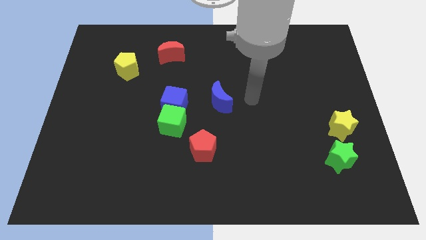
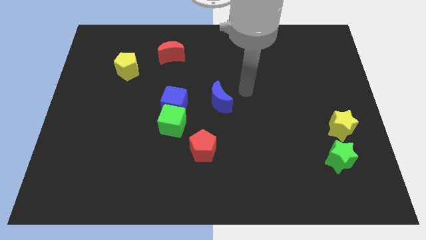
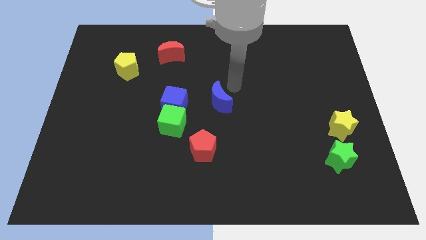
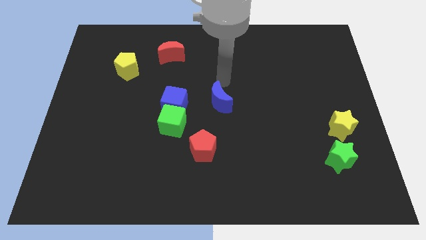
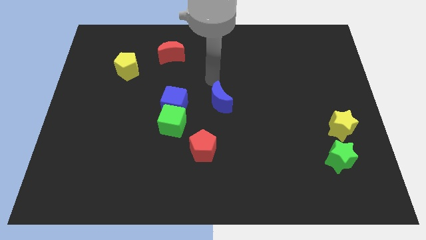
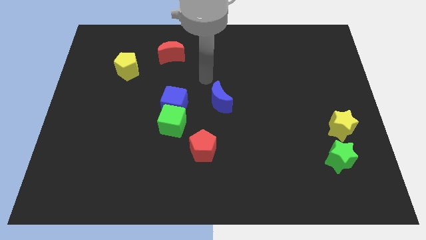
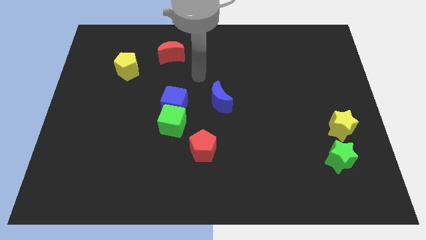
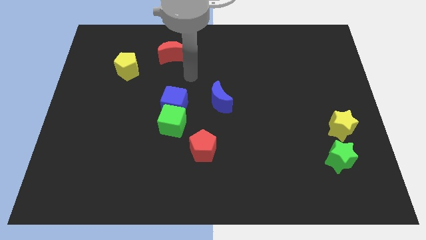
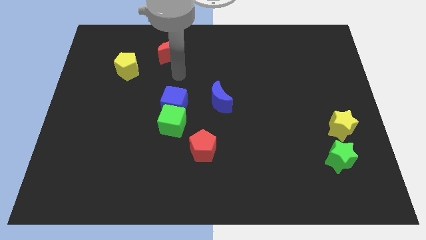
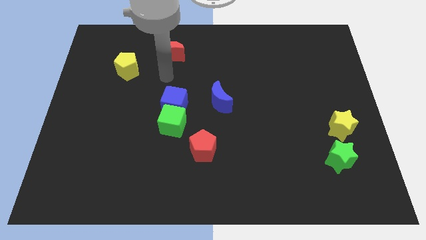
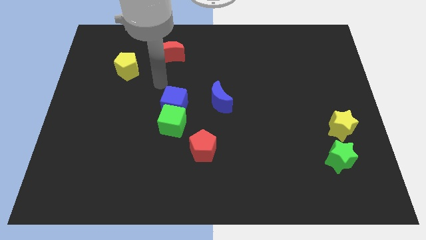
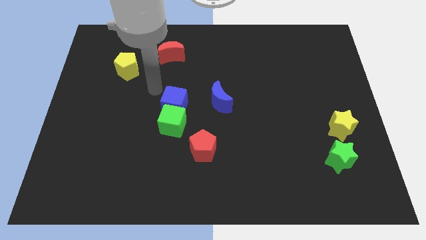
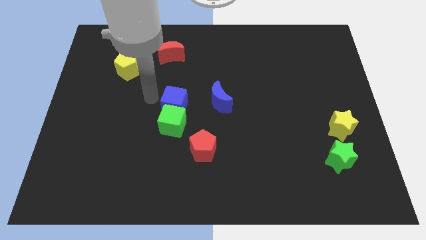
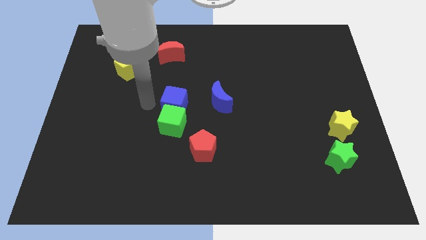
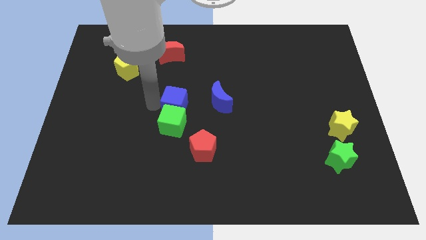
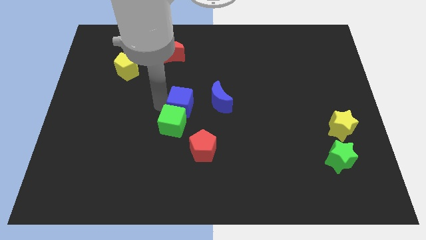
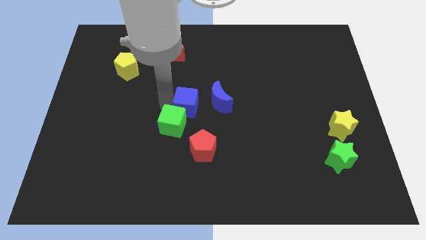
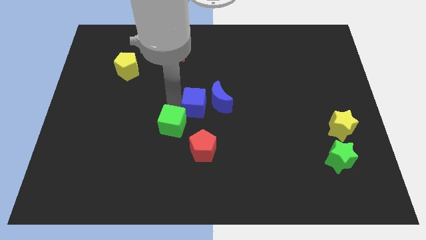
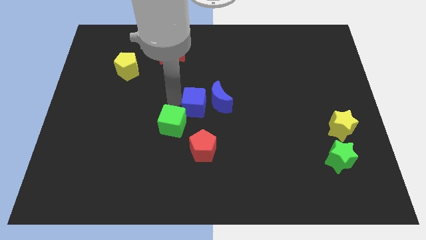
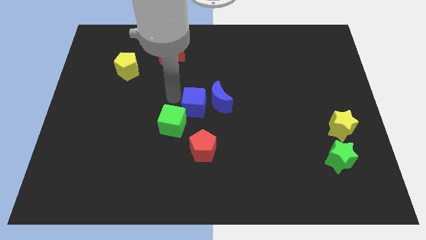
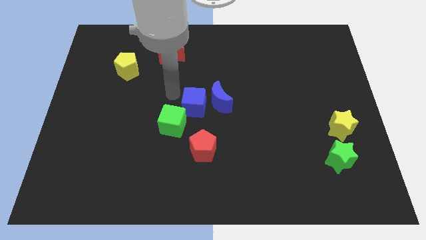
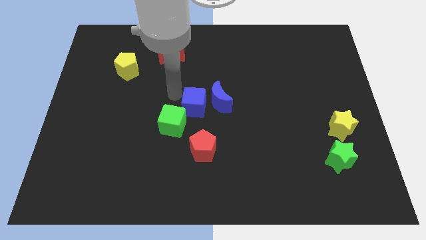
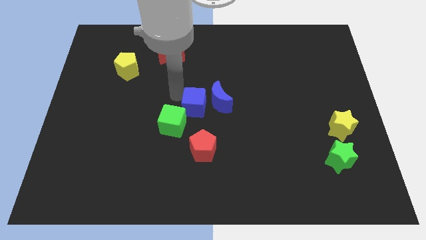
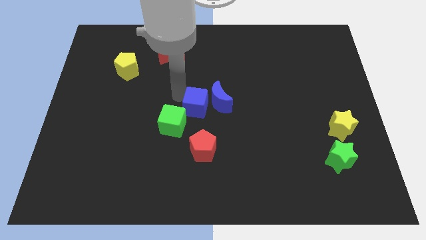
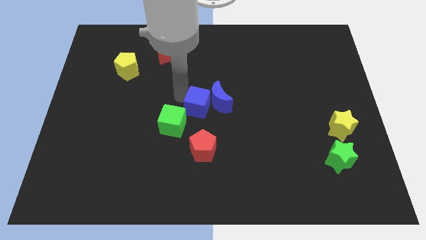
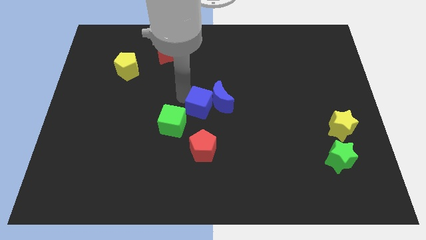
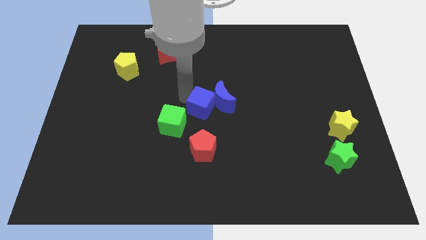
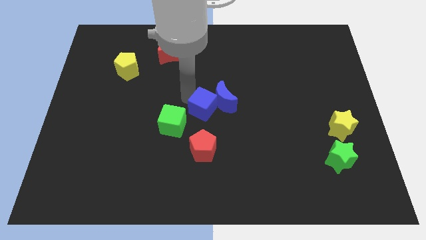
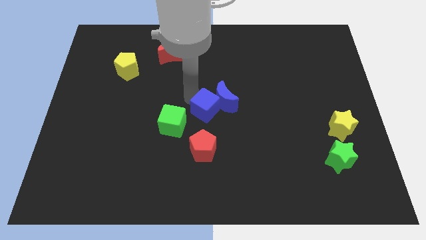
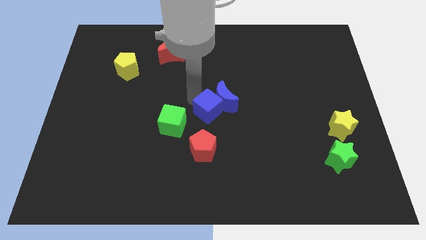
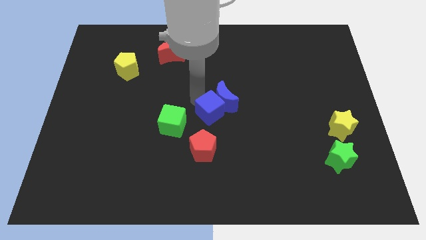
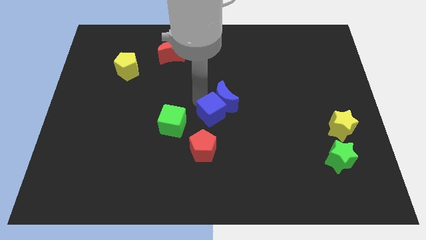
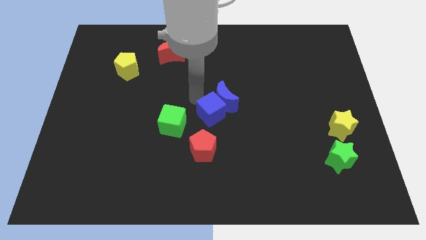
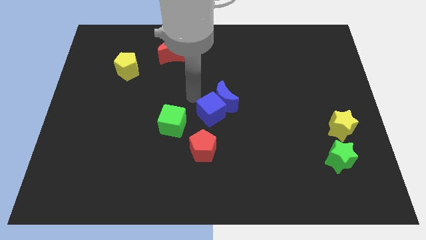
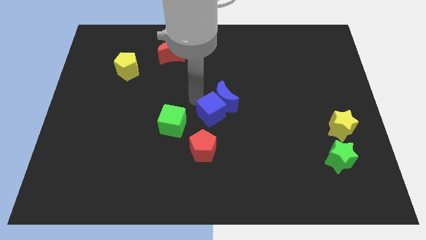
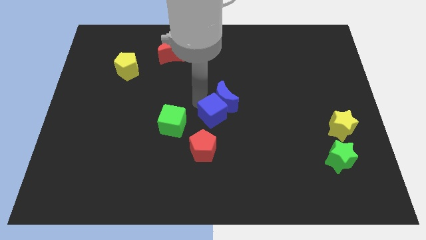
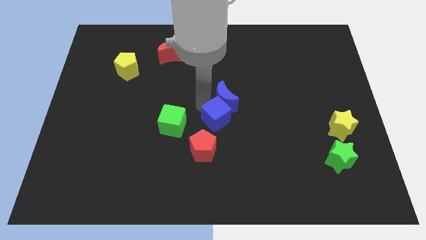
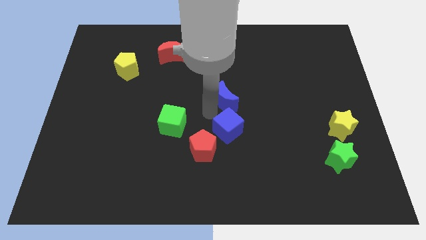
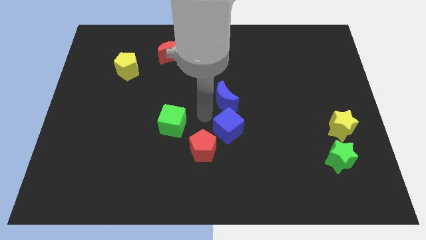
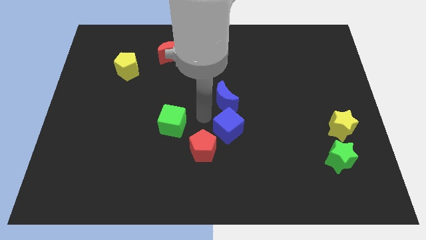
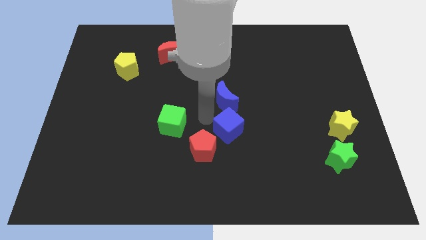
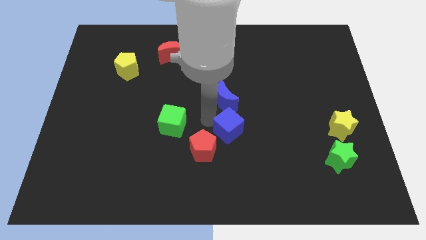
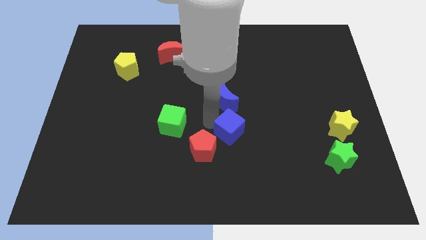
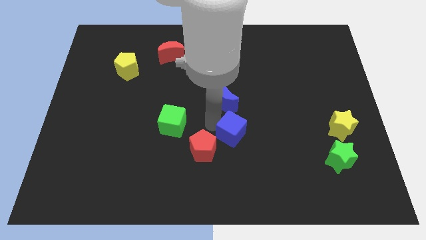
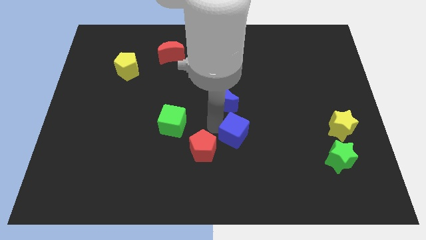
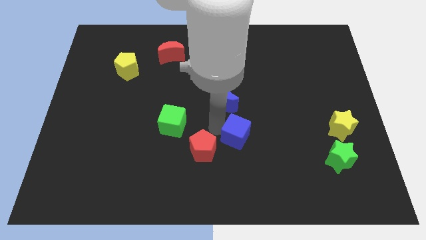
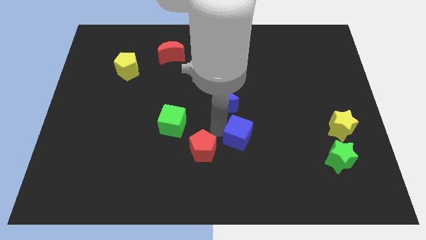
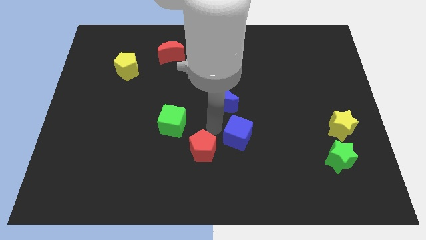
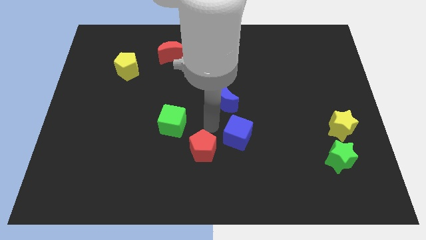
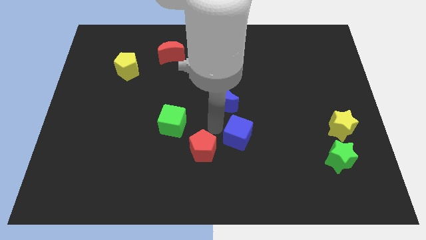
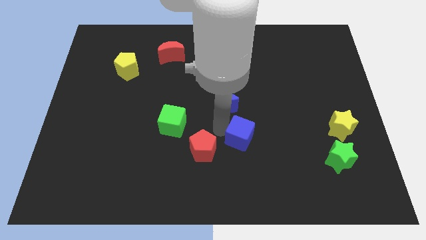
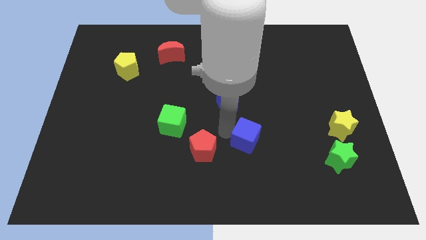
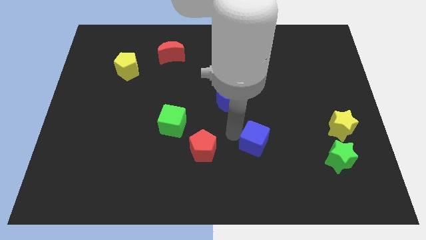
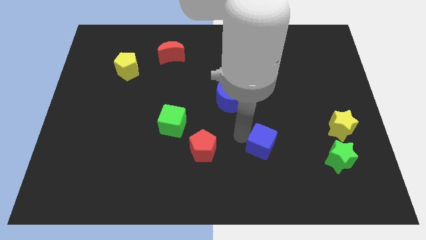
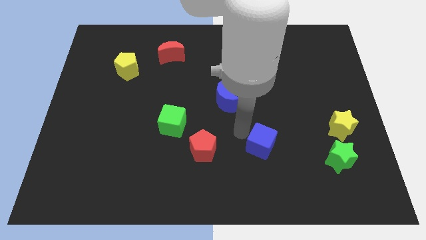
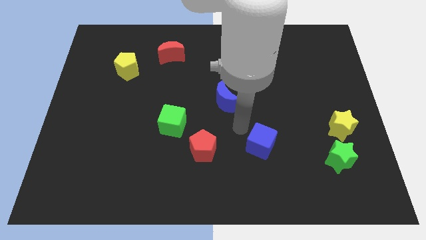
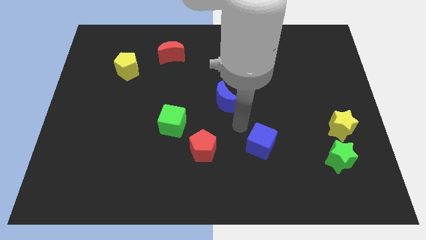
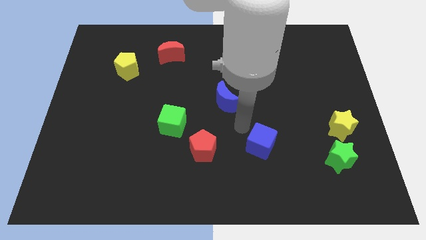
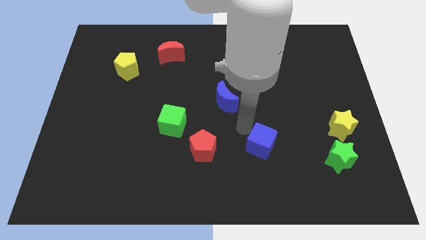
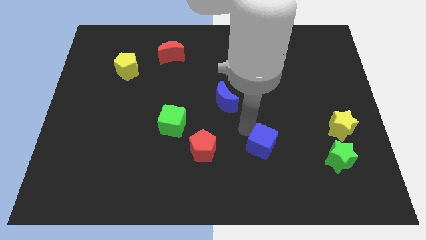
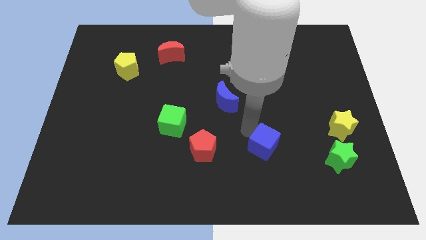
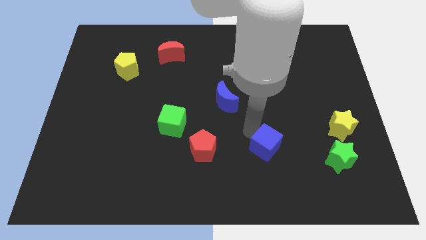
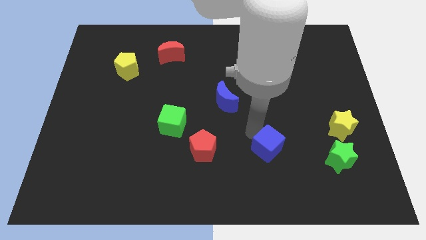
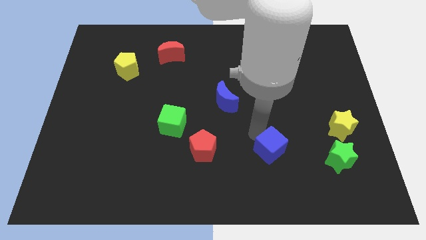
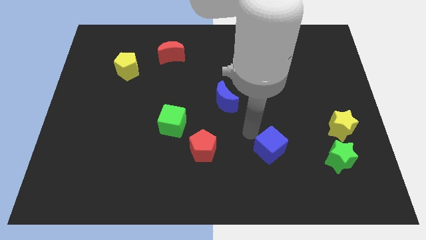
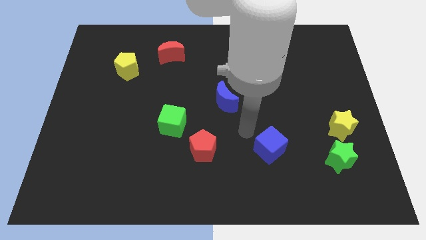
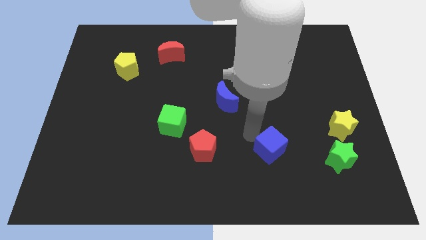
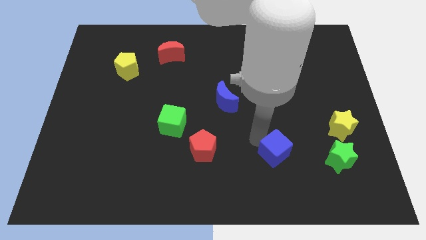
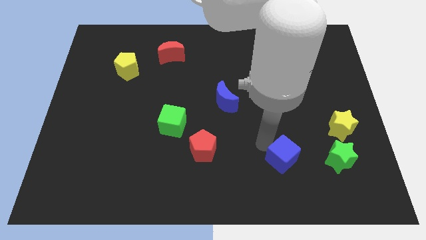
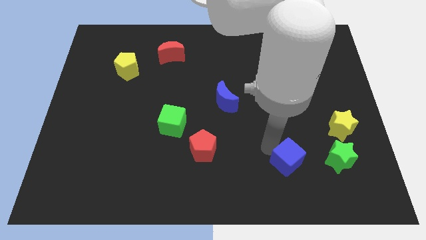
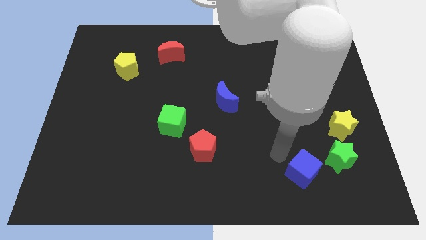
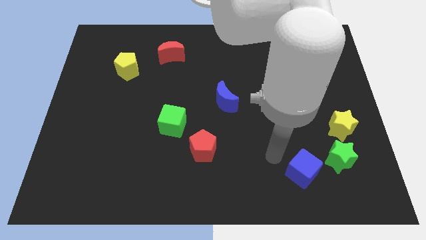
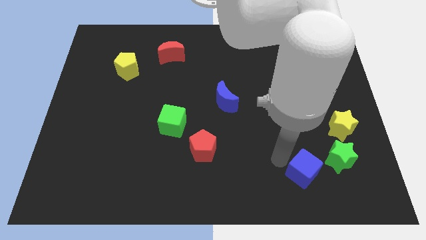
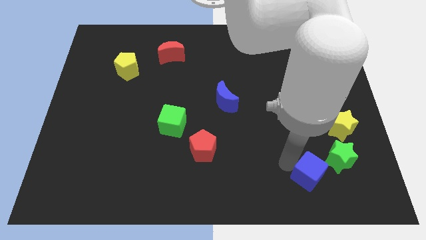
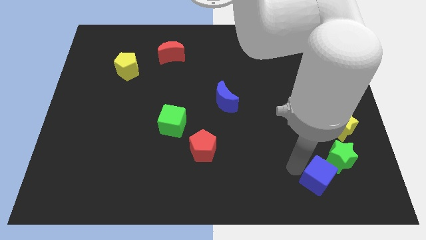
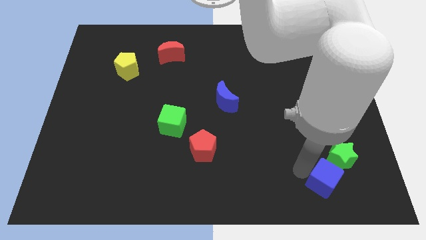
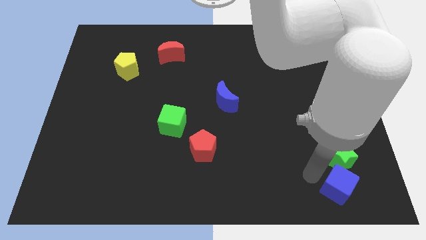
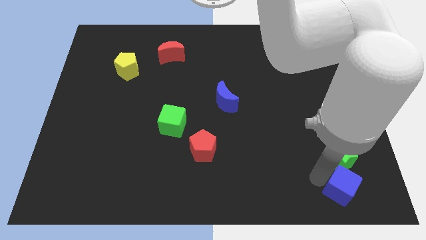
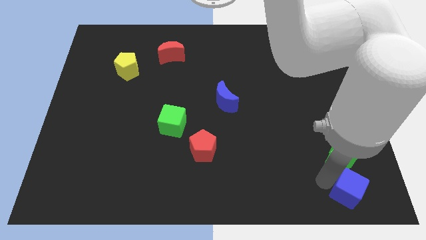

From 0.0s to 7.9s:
slide the blue cube to the bottom right of the board
